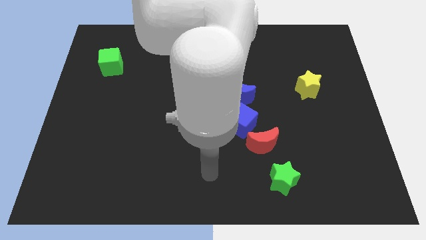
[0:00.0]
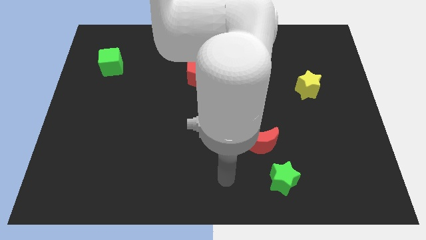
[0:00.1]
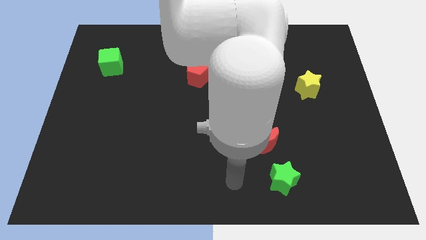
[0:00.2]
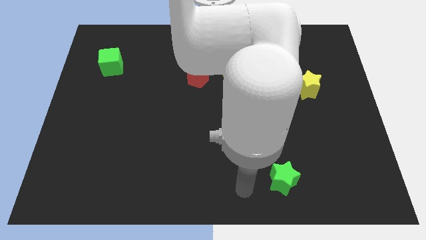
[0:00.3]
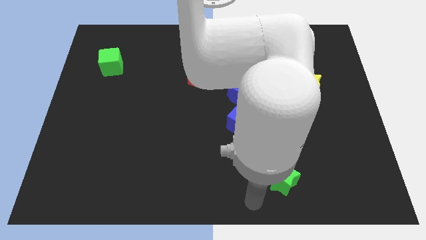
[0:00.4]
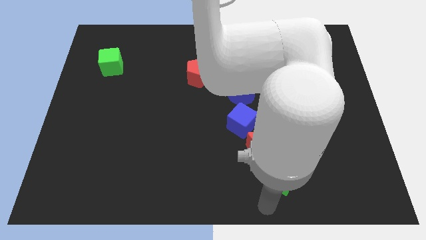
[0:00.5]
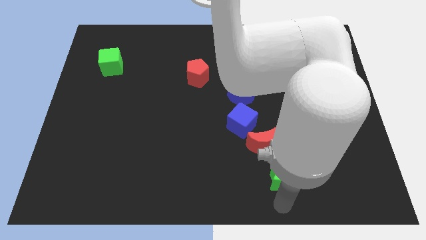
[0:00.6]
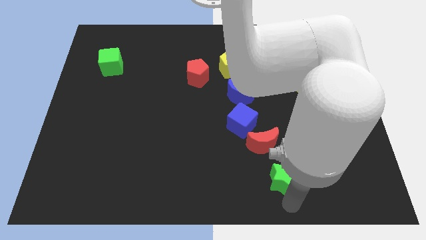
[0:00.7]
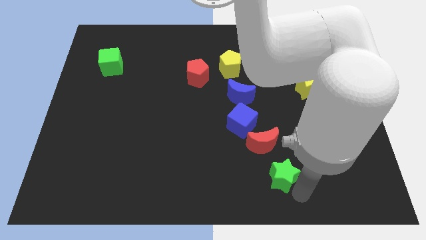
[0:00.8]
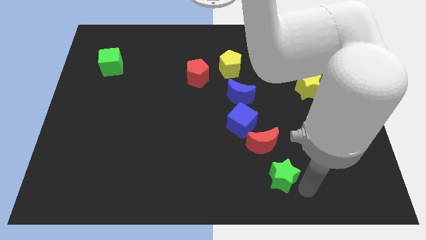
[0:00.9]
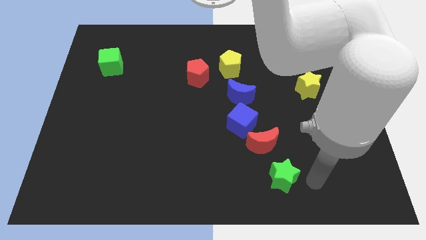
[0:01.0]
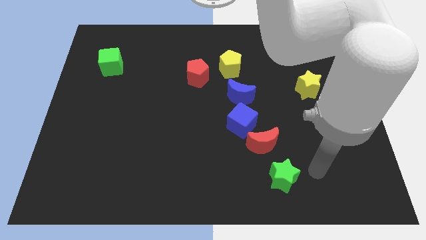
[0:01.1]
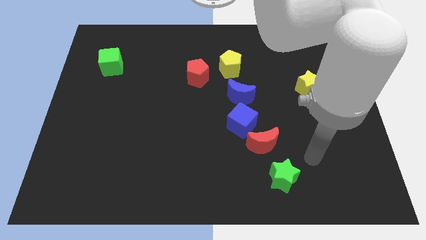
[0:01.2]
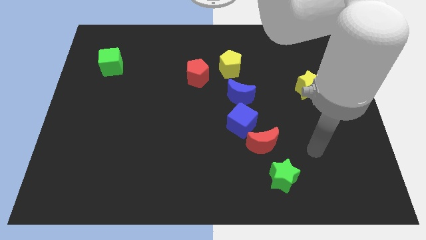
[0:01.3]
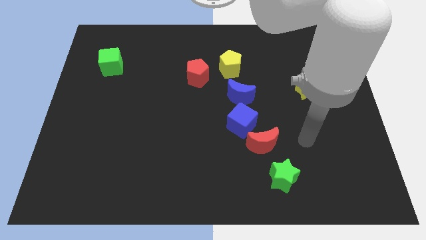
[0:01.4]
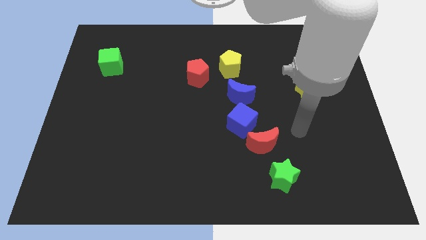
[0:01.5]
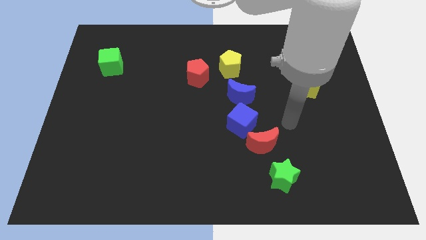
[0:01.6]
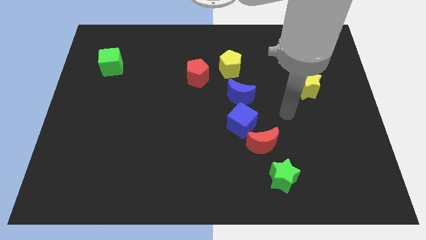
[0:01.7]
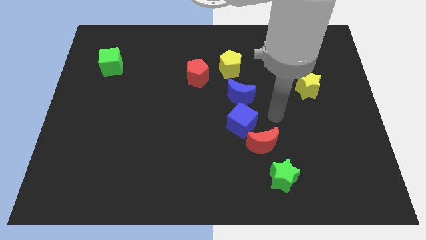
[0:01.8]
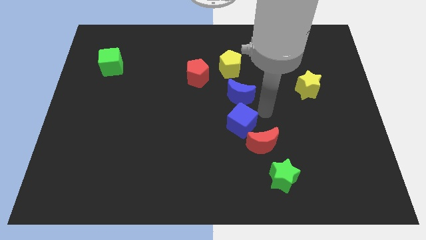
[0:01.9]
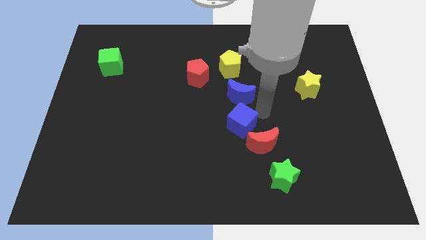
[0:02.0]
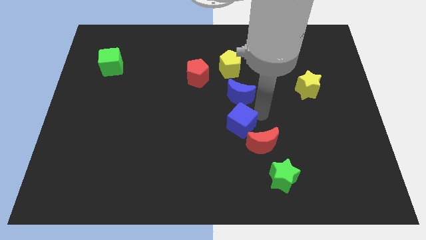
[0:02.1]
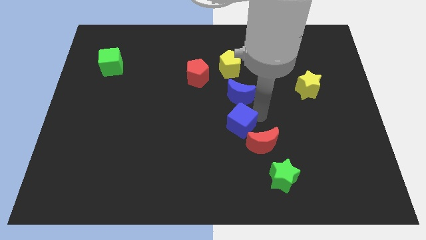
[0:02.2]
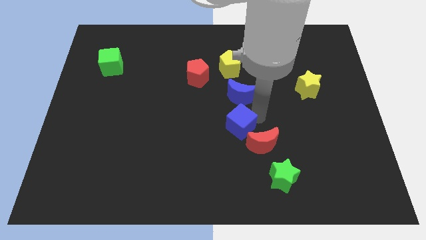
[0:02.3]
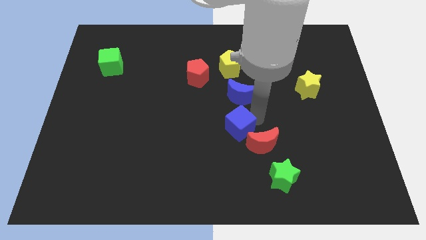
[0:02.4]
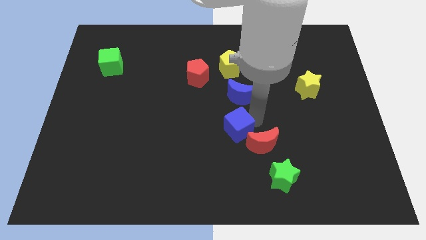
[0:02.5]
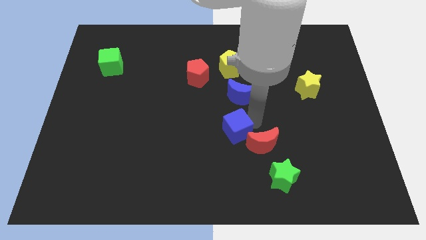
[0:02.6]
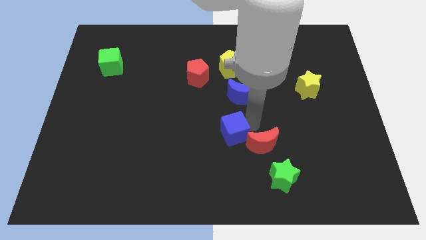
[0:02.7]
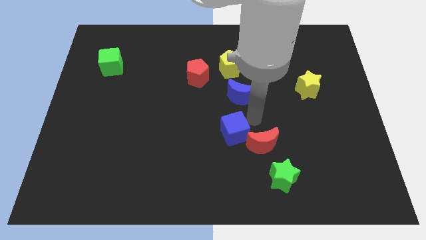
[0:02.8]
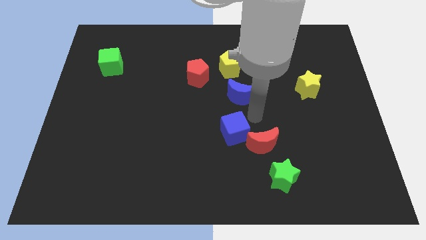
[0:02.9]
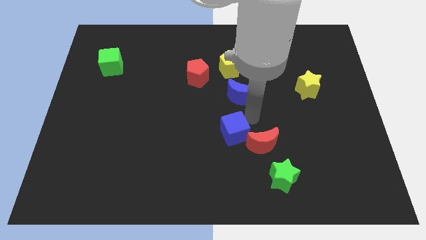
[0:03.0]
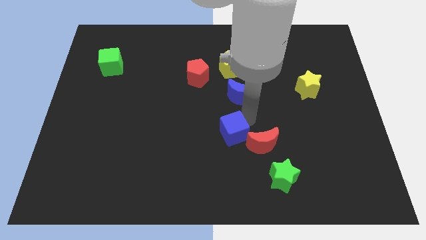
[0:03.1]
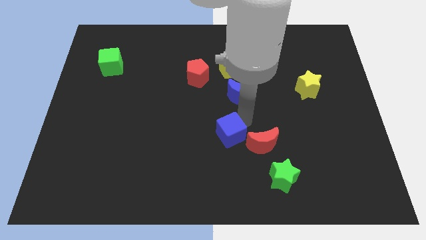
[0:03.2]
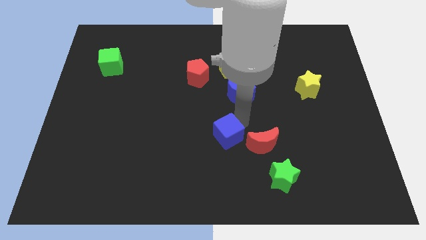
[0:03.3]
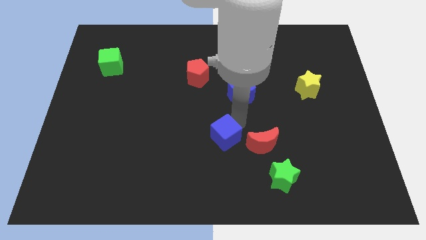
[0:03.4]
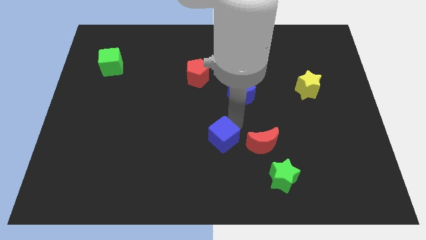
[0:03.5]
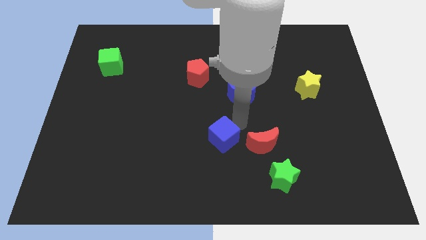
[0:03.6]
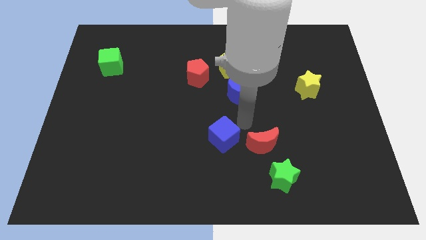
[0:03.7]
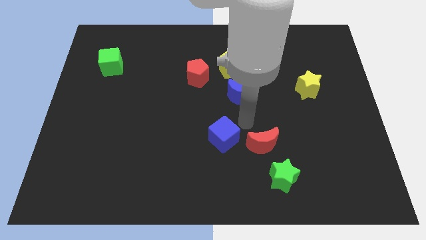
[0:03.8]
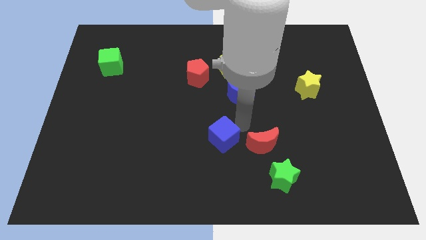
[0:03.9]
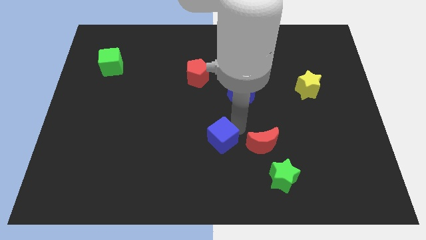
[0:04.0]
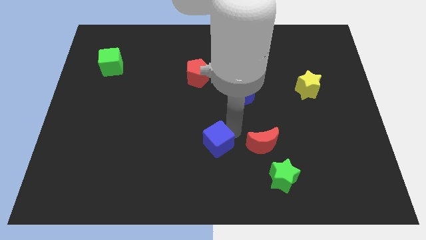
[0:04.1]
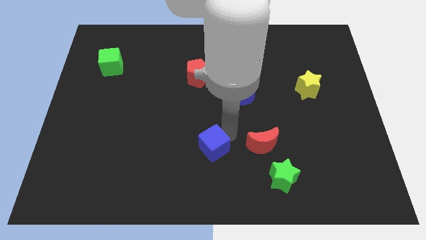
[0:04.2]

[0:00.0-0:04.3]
separate the blue cube from the red moon and blue moon

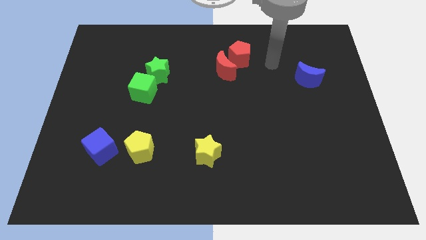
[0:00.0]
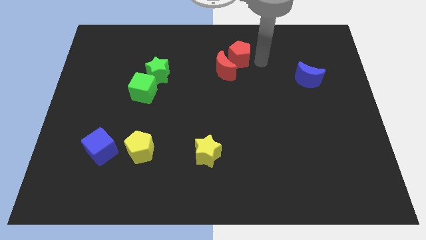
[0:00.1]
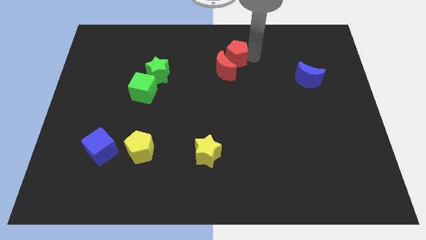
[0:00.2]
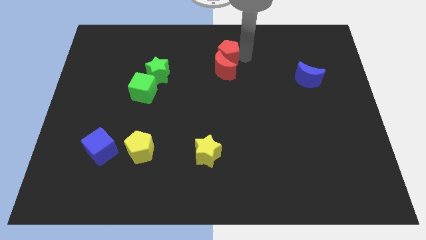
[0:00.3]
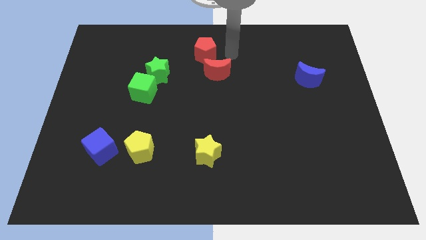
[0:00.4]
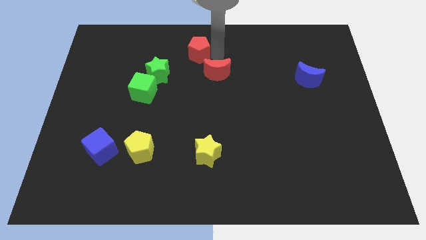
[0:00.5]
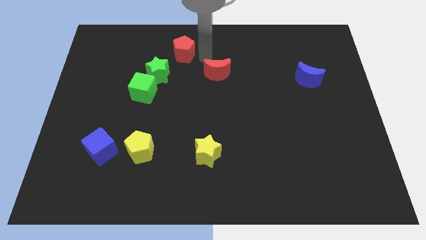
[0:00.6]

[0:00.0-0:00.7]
pull the red moon apart from the red pentagon

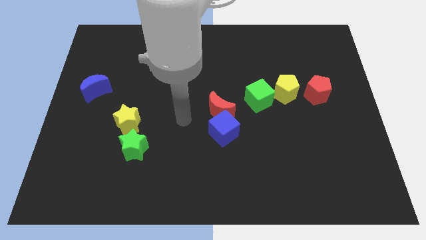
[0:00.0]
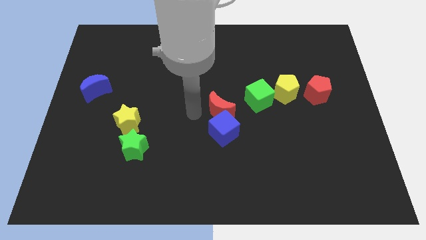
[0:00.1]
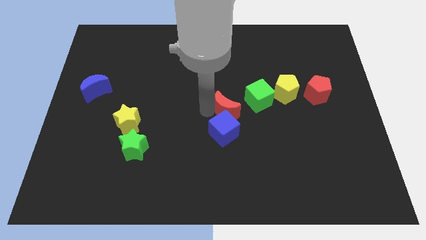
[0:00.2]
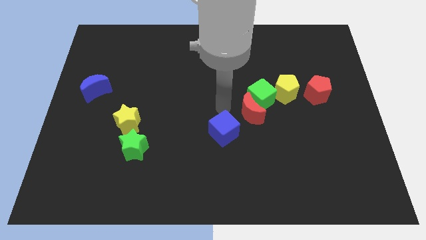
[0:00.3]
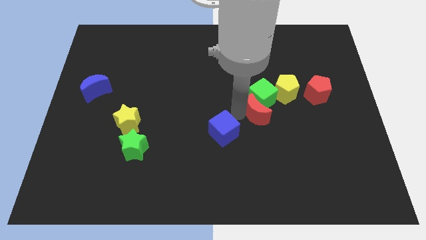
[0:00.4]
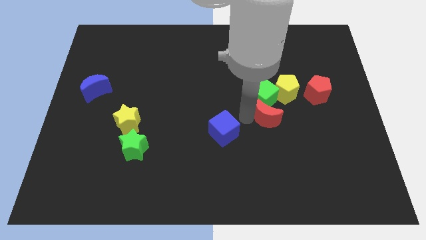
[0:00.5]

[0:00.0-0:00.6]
separate the blue cube from the red moon

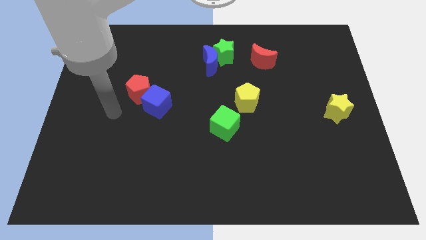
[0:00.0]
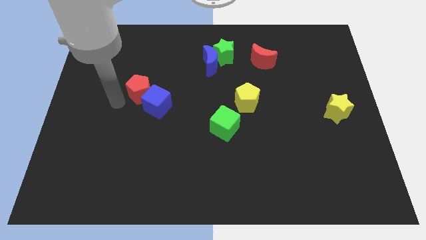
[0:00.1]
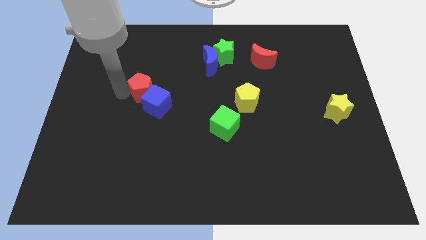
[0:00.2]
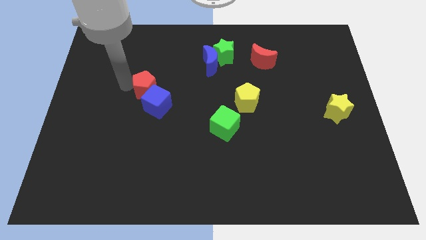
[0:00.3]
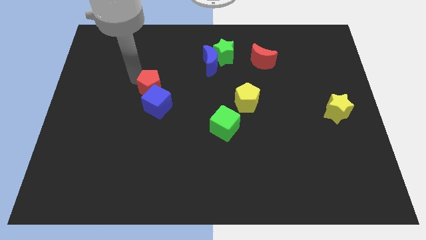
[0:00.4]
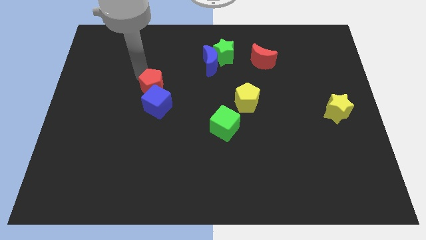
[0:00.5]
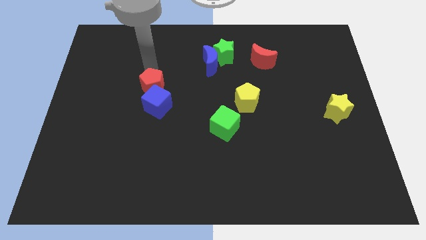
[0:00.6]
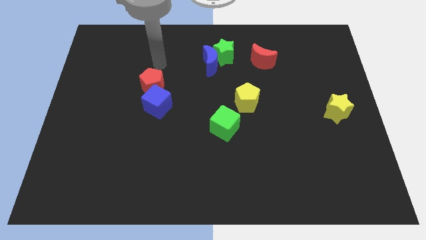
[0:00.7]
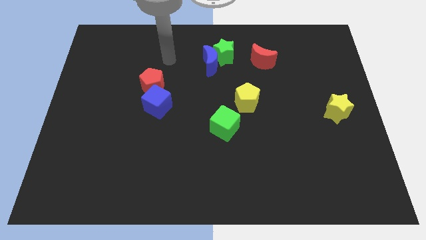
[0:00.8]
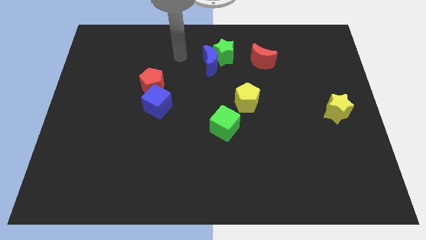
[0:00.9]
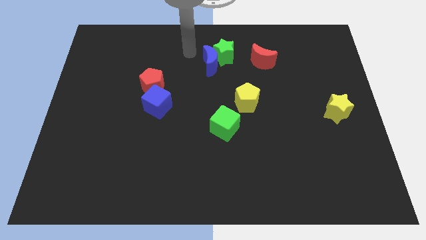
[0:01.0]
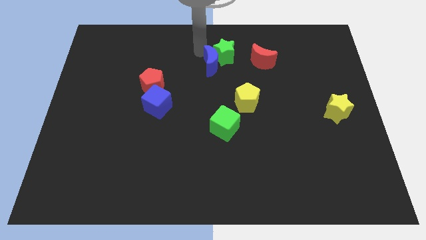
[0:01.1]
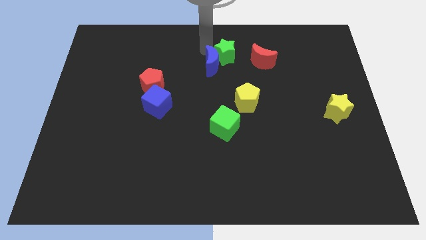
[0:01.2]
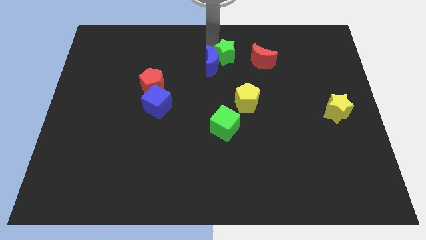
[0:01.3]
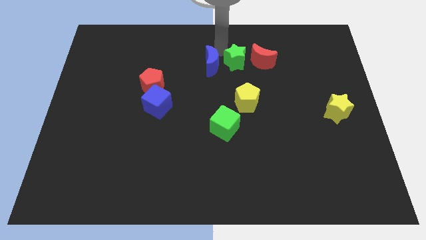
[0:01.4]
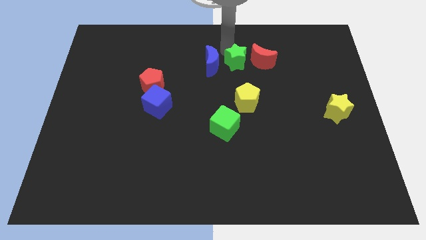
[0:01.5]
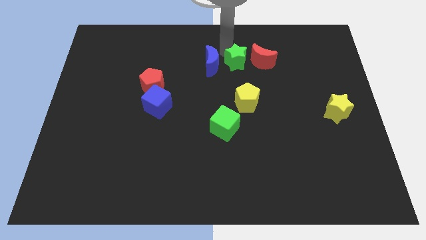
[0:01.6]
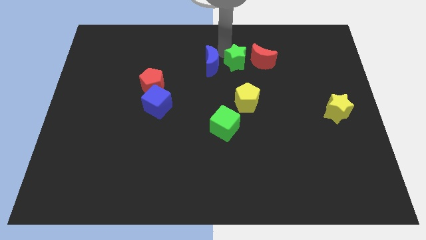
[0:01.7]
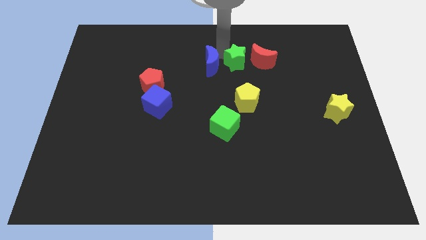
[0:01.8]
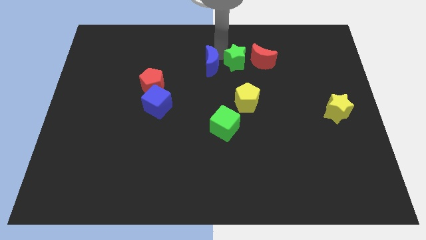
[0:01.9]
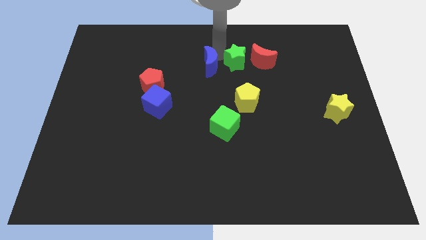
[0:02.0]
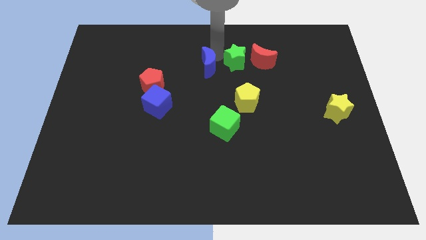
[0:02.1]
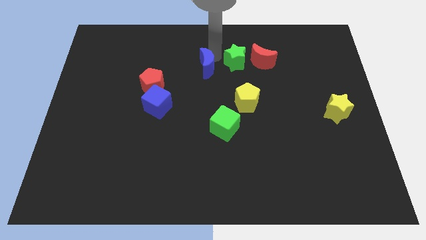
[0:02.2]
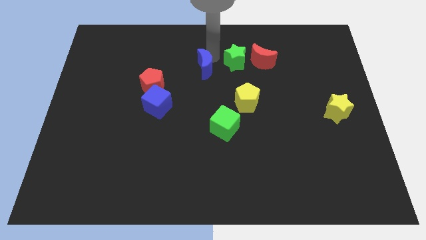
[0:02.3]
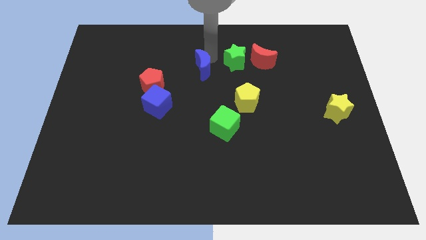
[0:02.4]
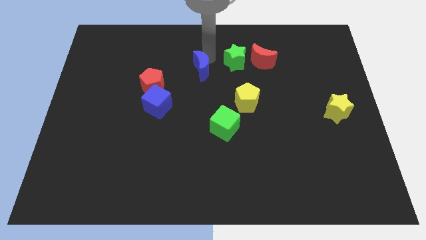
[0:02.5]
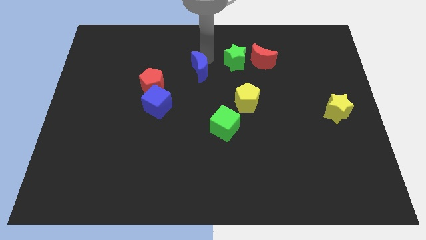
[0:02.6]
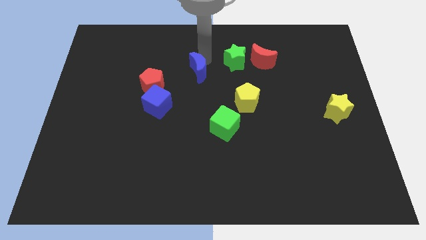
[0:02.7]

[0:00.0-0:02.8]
move the blue moon away from the green star

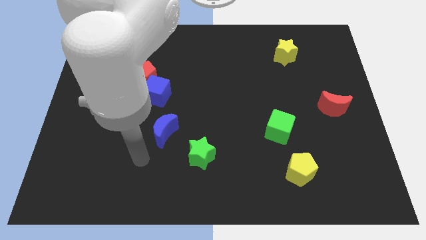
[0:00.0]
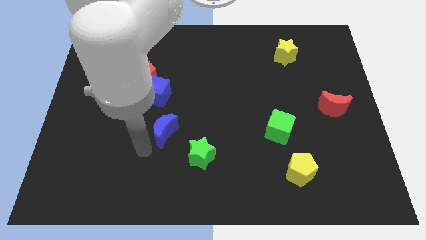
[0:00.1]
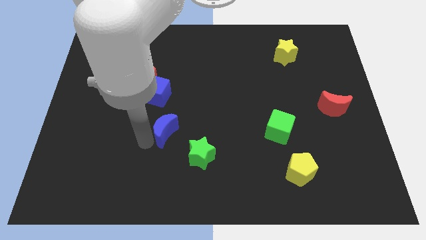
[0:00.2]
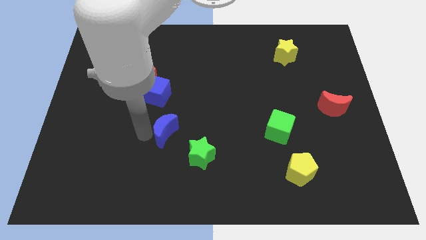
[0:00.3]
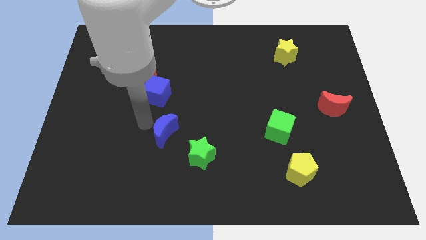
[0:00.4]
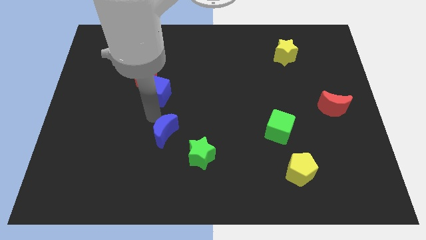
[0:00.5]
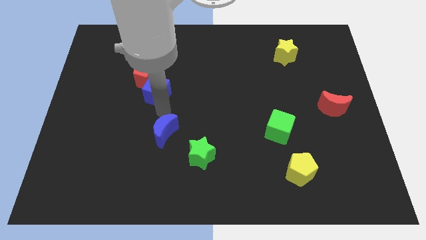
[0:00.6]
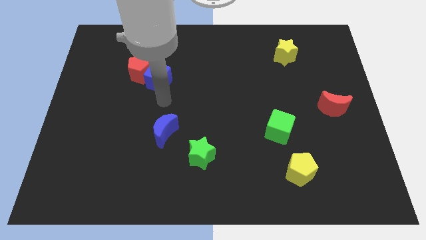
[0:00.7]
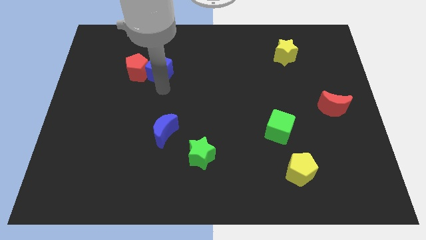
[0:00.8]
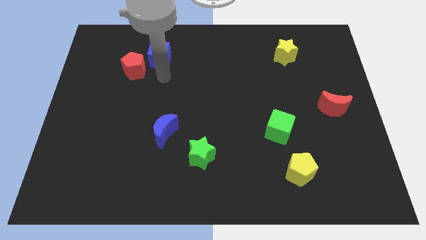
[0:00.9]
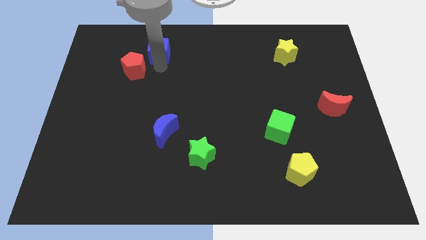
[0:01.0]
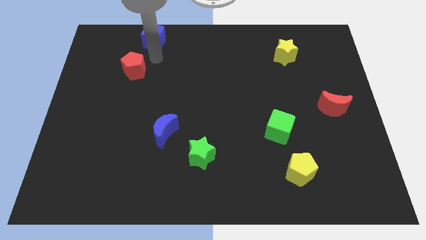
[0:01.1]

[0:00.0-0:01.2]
separate the red pentagon from the blue cube
